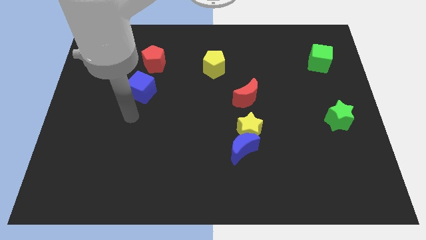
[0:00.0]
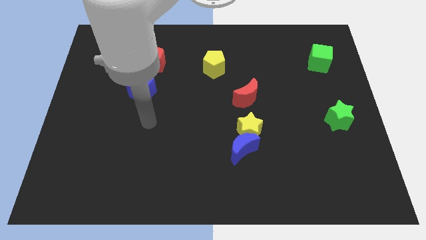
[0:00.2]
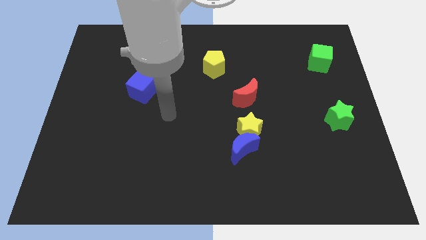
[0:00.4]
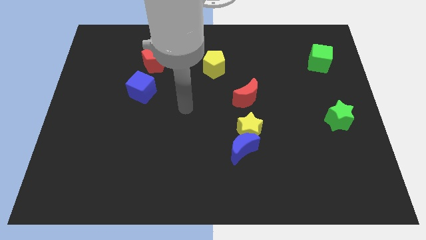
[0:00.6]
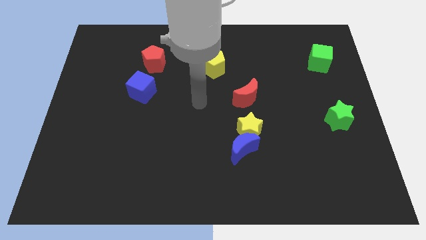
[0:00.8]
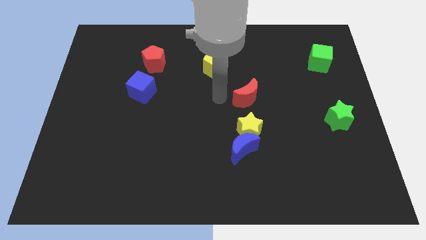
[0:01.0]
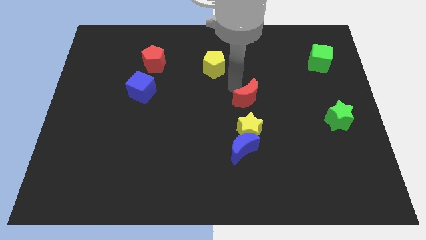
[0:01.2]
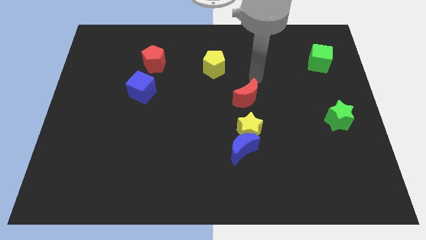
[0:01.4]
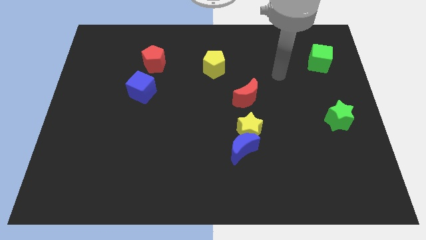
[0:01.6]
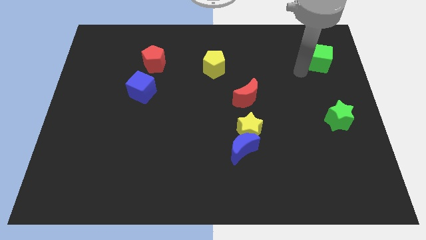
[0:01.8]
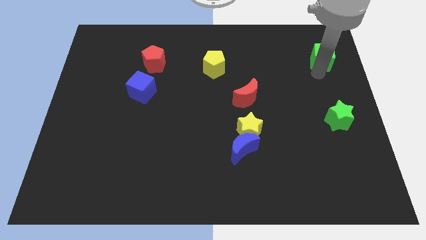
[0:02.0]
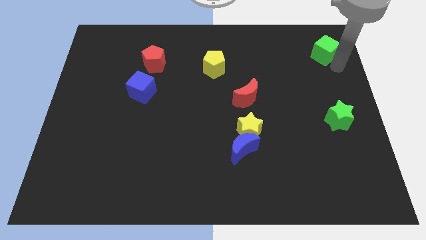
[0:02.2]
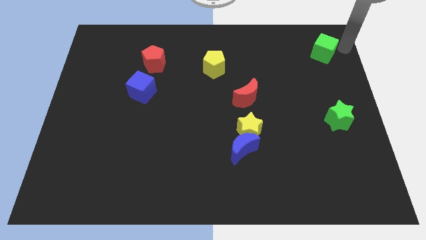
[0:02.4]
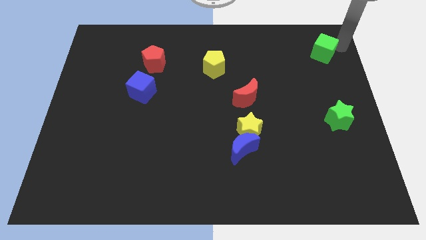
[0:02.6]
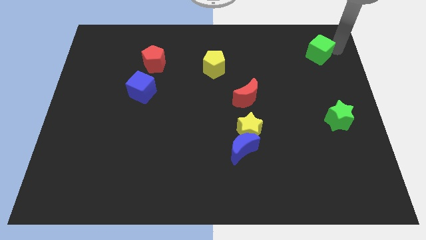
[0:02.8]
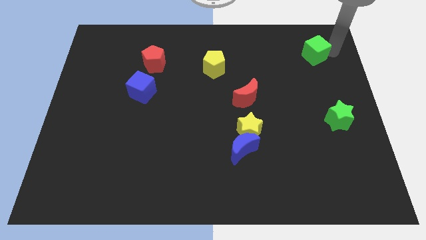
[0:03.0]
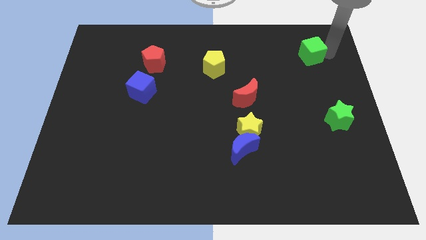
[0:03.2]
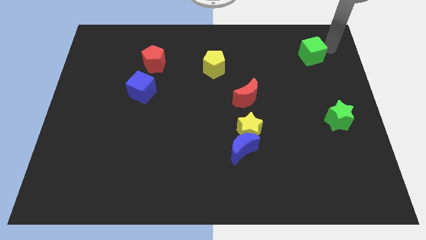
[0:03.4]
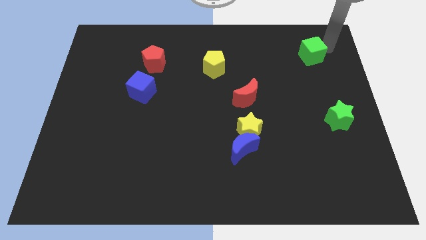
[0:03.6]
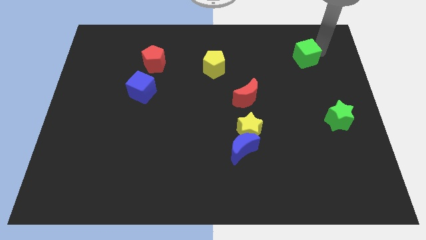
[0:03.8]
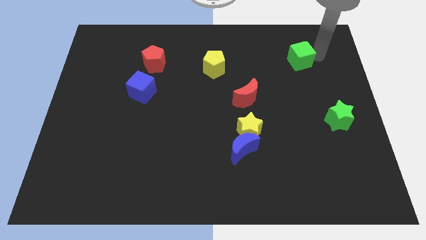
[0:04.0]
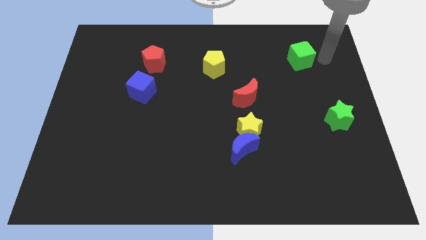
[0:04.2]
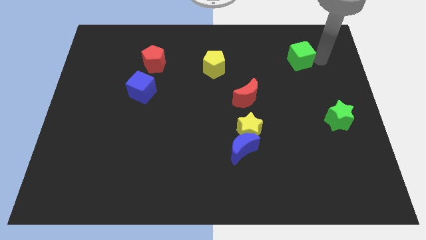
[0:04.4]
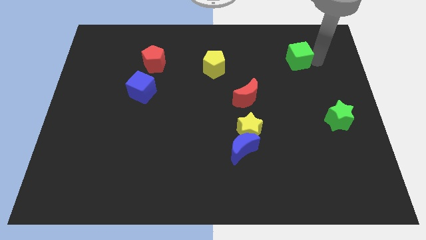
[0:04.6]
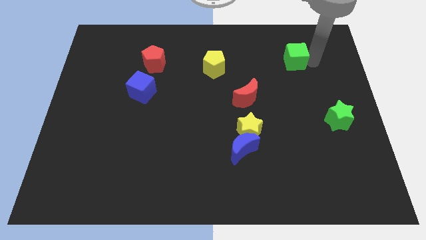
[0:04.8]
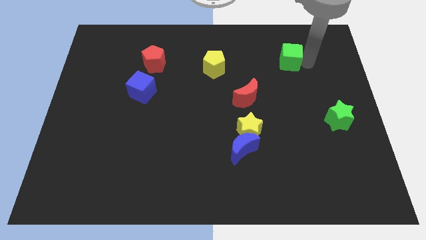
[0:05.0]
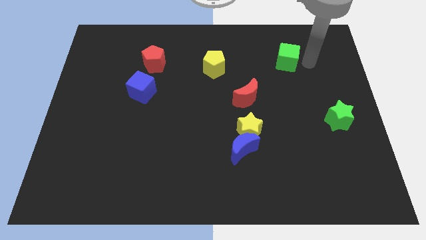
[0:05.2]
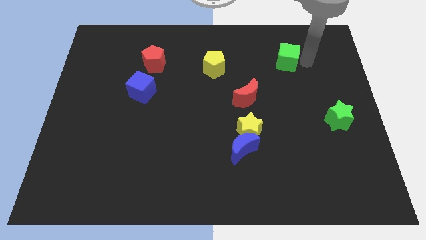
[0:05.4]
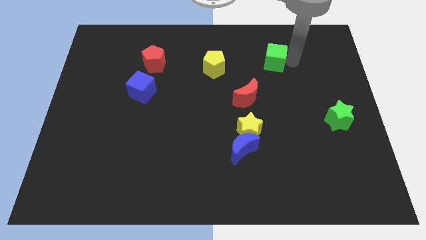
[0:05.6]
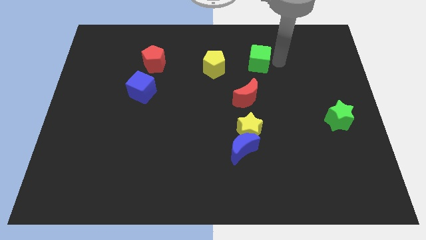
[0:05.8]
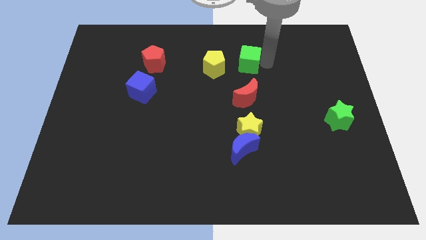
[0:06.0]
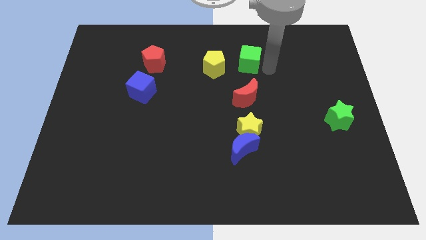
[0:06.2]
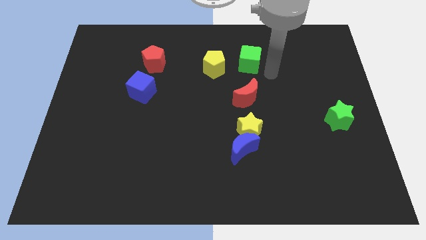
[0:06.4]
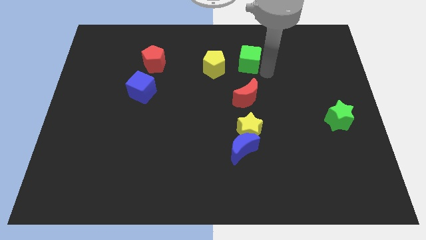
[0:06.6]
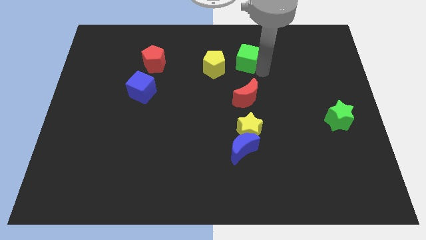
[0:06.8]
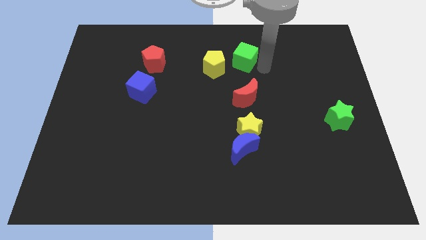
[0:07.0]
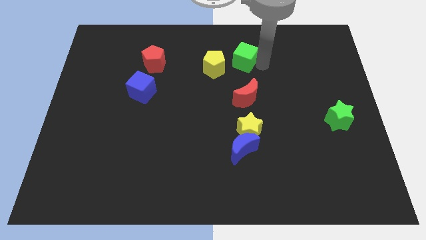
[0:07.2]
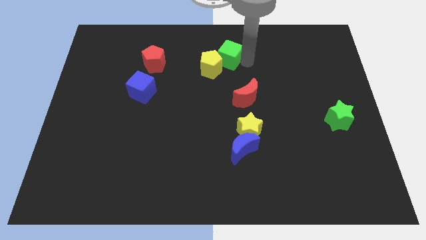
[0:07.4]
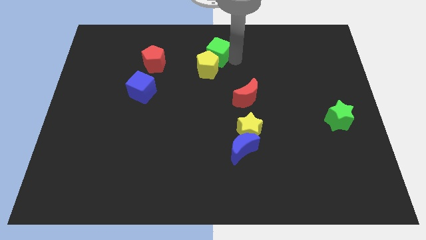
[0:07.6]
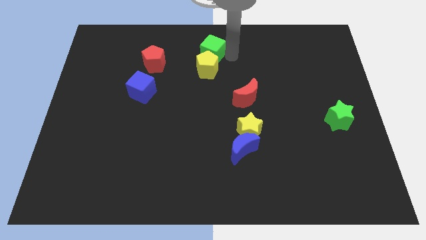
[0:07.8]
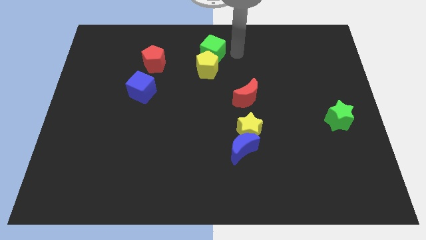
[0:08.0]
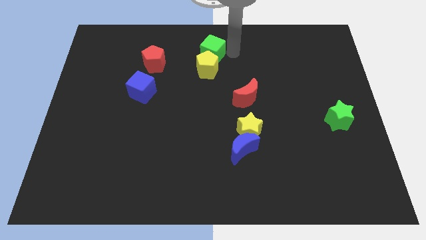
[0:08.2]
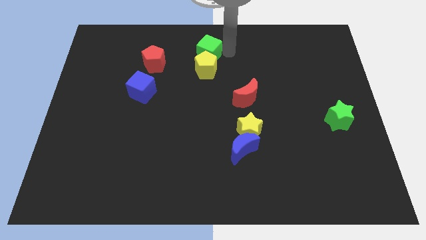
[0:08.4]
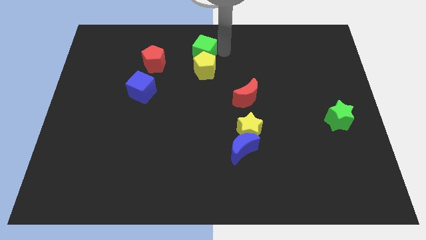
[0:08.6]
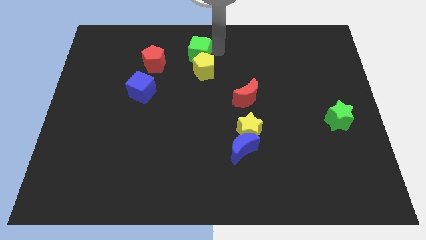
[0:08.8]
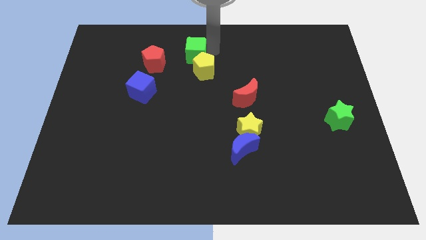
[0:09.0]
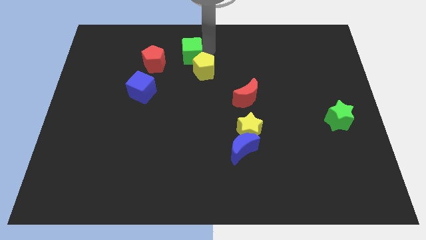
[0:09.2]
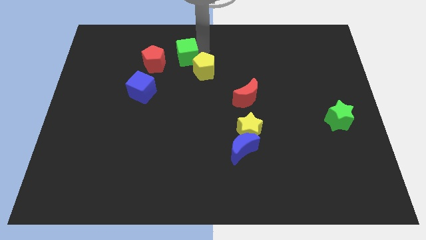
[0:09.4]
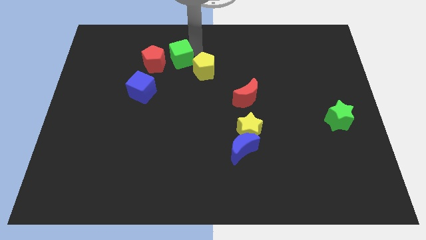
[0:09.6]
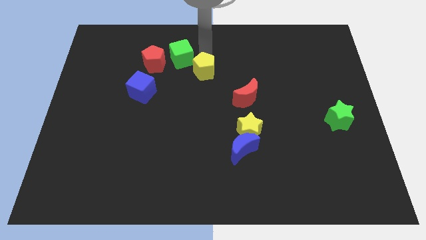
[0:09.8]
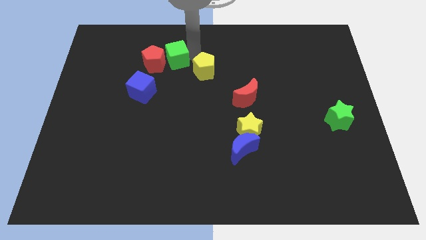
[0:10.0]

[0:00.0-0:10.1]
slide the green cube to the red pentagon

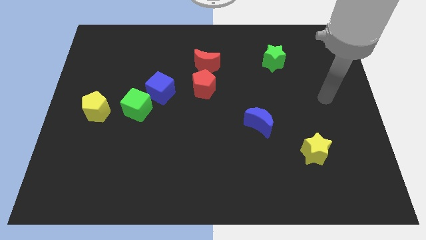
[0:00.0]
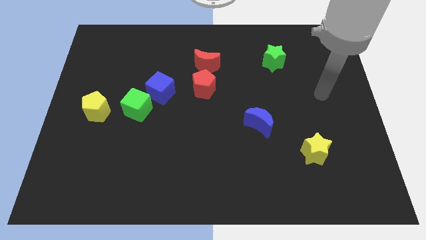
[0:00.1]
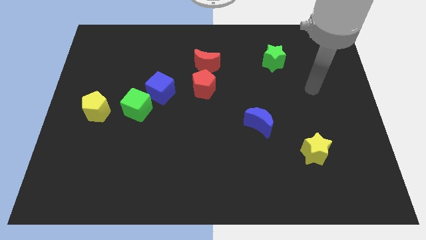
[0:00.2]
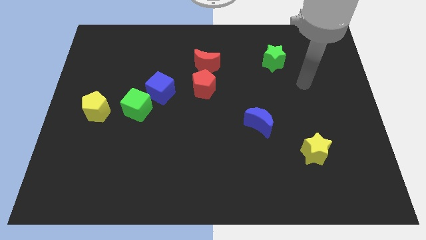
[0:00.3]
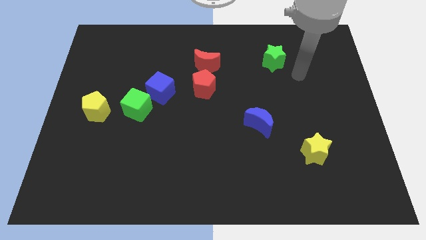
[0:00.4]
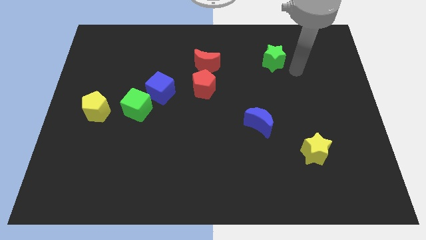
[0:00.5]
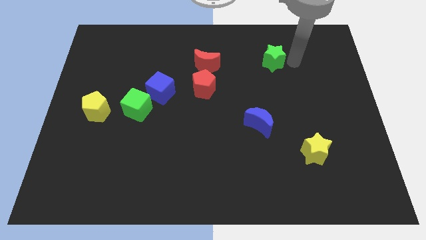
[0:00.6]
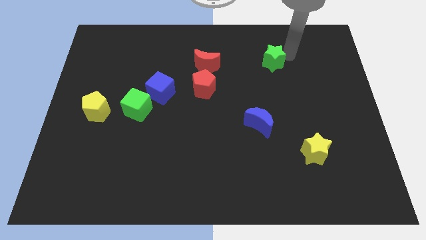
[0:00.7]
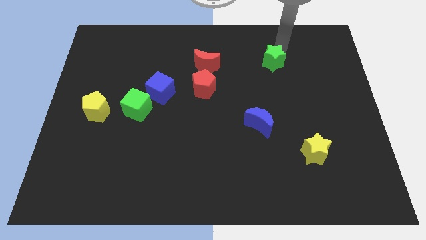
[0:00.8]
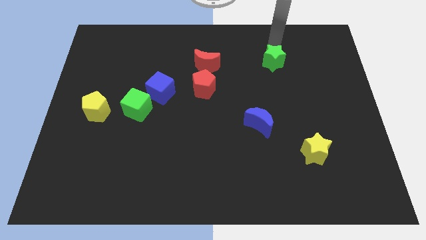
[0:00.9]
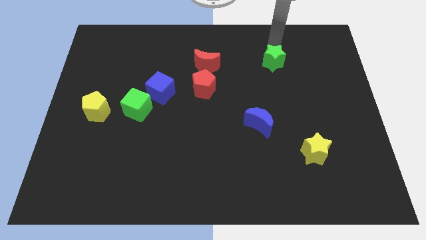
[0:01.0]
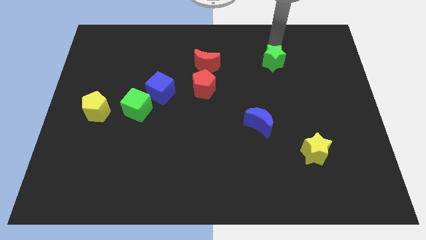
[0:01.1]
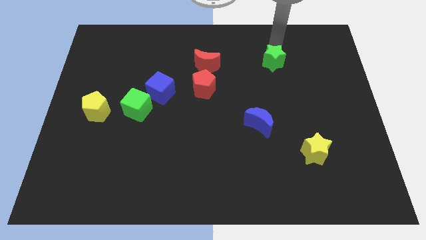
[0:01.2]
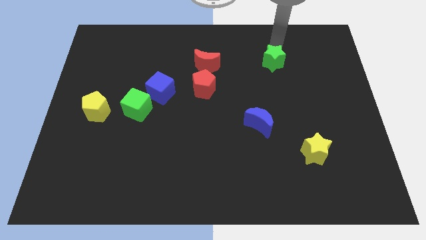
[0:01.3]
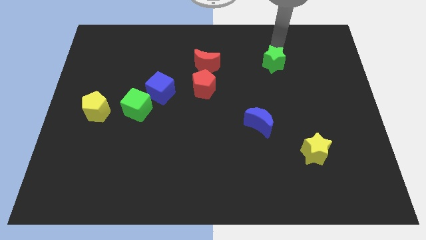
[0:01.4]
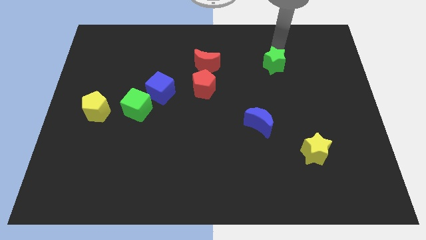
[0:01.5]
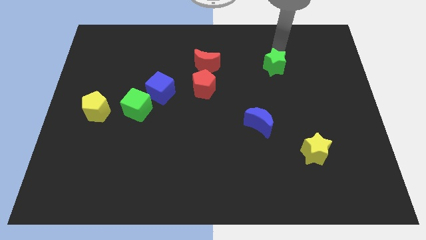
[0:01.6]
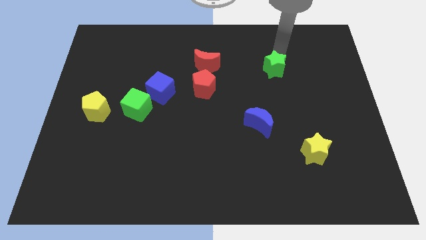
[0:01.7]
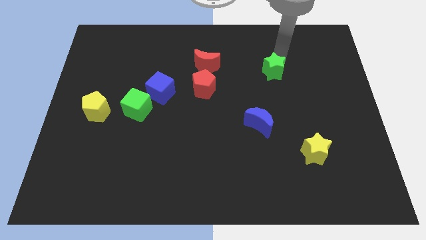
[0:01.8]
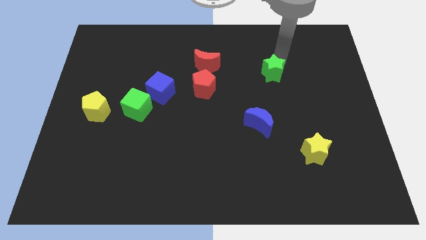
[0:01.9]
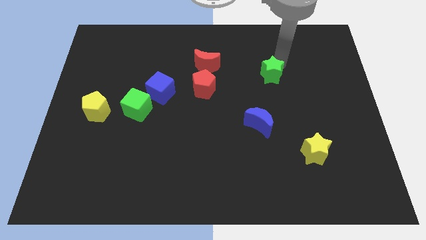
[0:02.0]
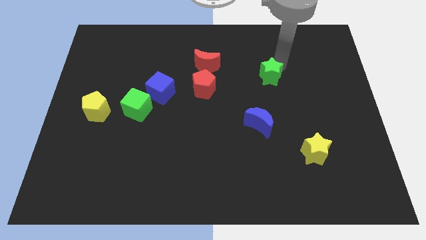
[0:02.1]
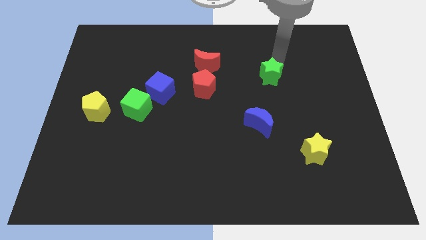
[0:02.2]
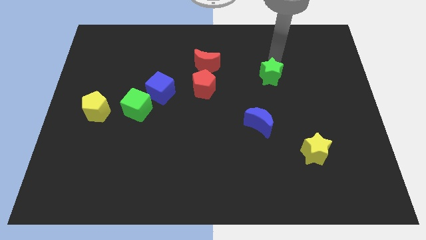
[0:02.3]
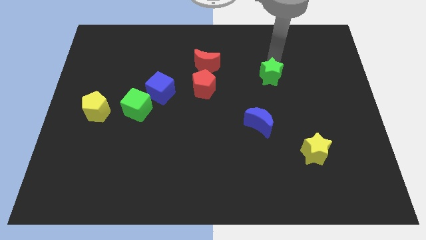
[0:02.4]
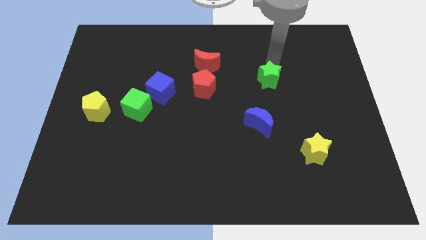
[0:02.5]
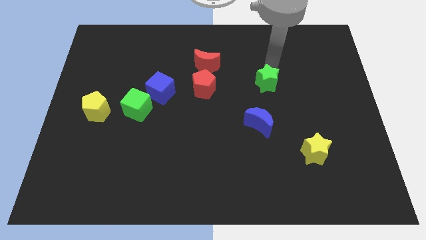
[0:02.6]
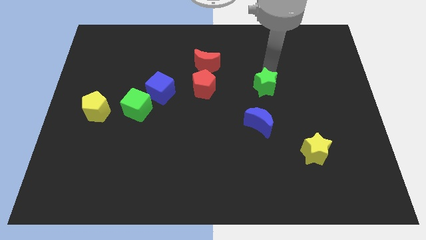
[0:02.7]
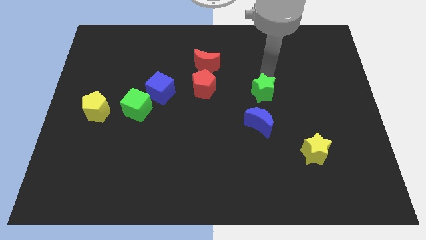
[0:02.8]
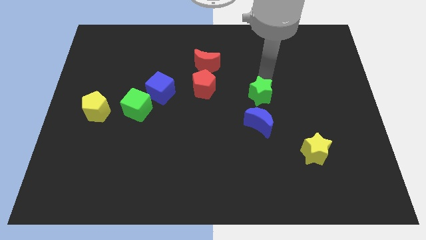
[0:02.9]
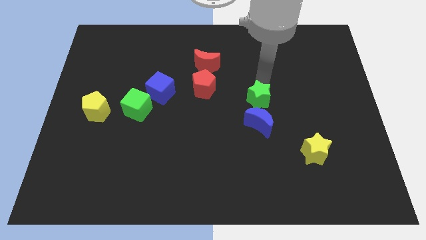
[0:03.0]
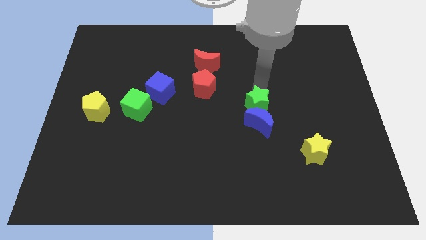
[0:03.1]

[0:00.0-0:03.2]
push the green star towards the blue moon
